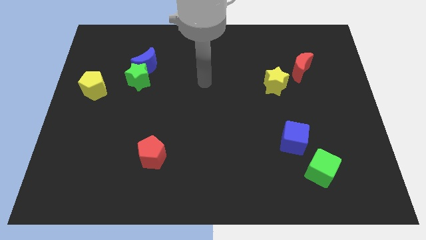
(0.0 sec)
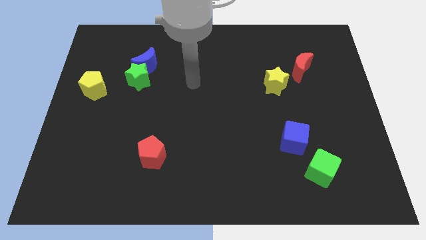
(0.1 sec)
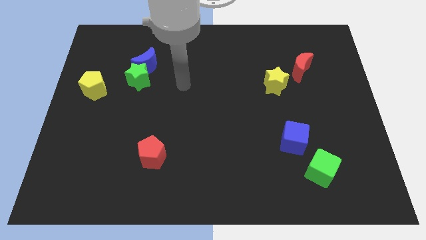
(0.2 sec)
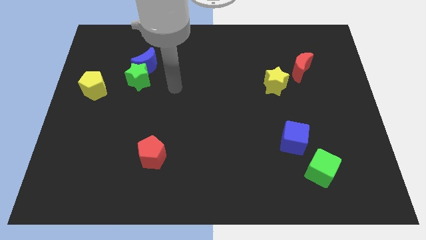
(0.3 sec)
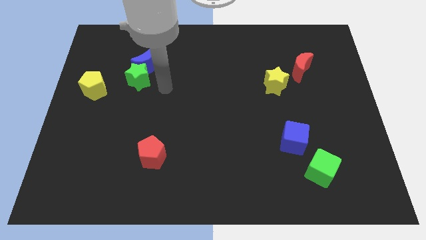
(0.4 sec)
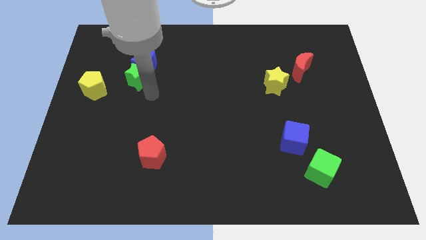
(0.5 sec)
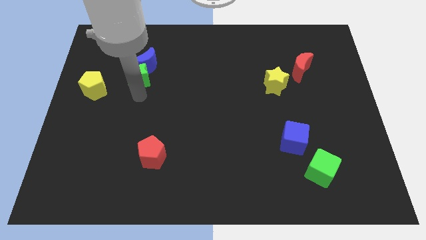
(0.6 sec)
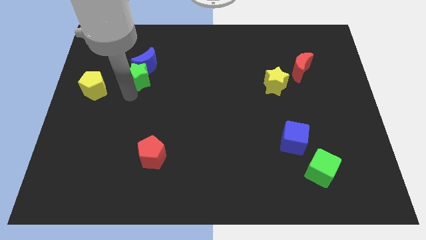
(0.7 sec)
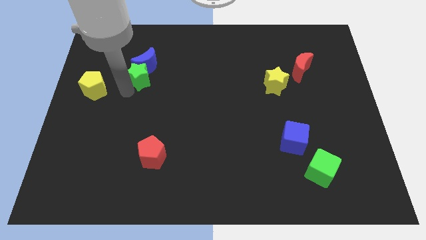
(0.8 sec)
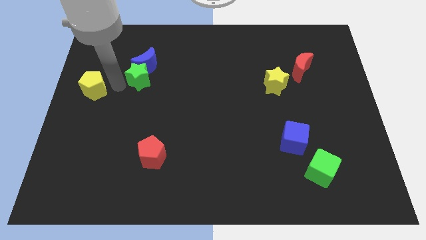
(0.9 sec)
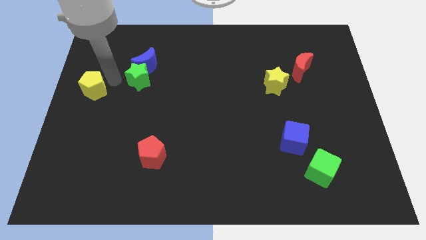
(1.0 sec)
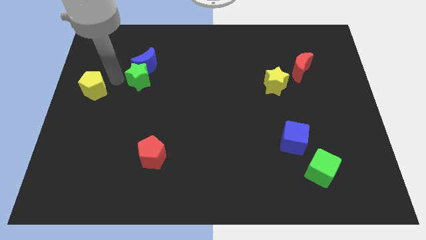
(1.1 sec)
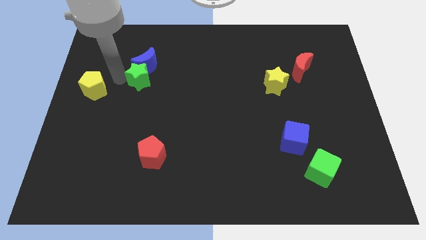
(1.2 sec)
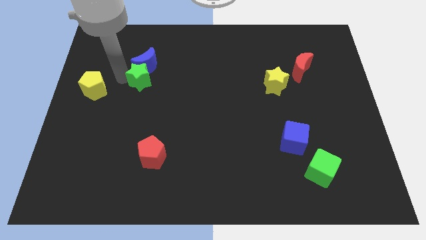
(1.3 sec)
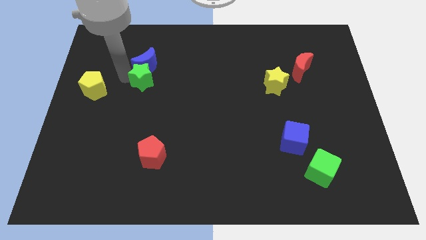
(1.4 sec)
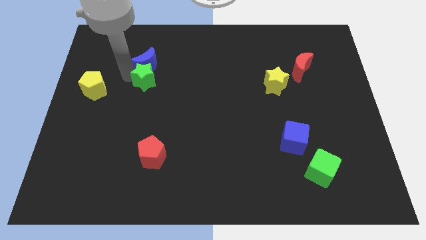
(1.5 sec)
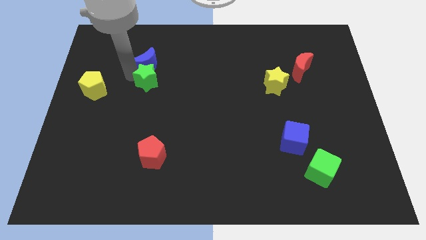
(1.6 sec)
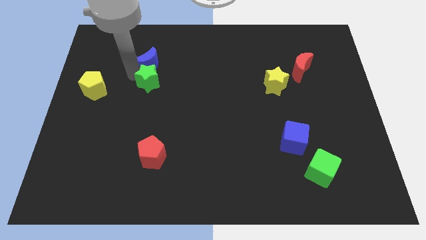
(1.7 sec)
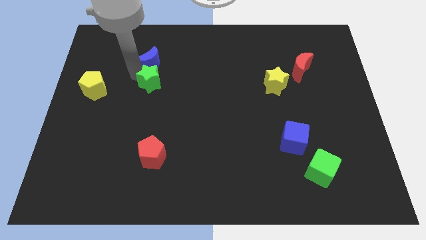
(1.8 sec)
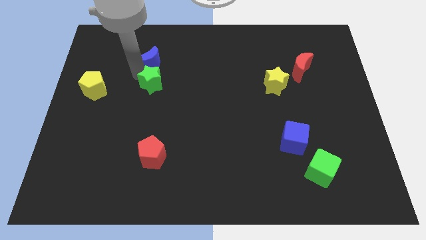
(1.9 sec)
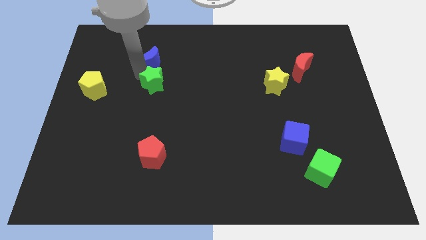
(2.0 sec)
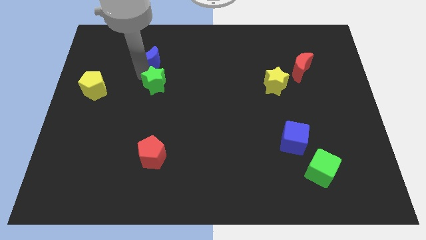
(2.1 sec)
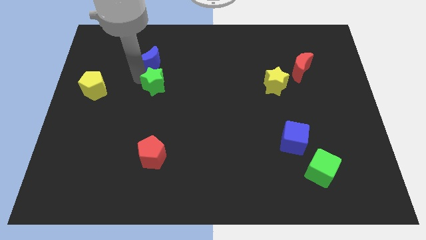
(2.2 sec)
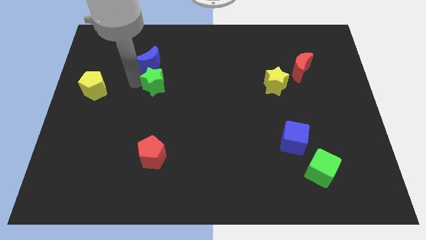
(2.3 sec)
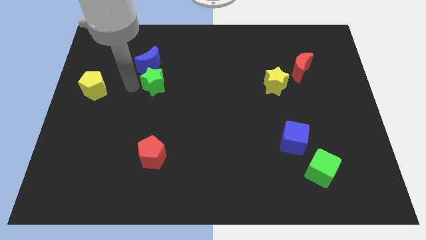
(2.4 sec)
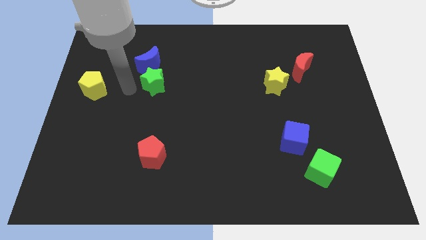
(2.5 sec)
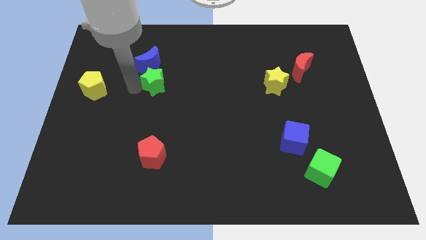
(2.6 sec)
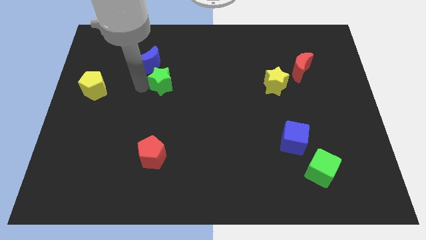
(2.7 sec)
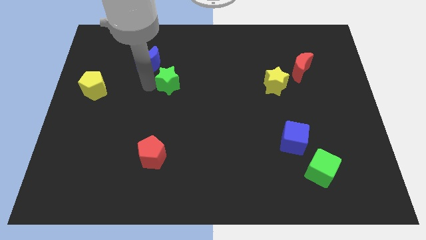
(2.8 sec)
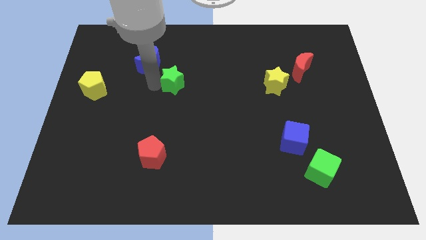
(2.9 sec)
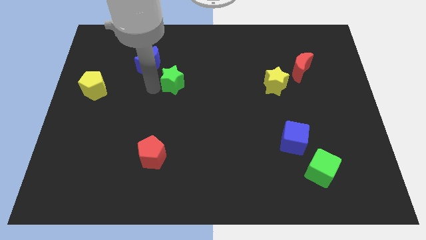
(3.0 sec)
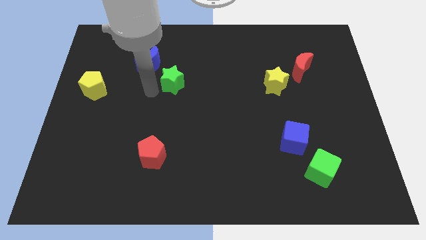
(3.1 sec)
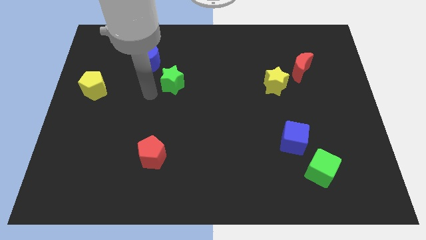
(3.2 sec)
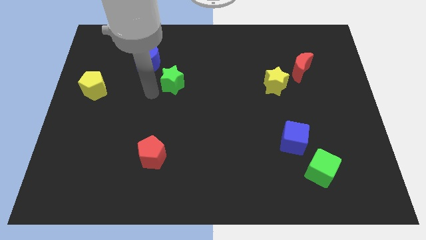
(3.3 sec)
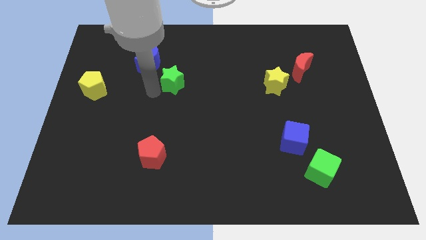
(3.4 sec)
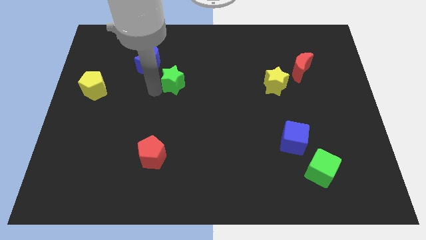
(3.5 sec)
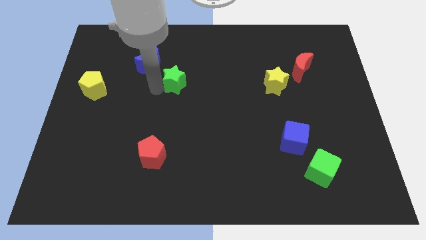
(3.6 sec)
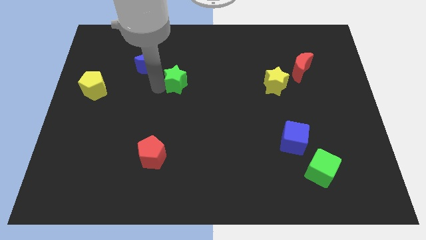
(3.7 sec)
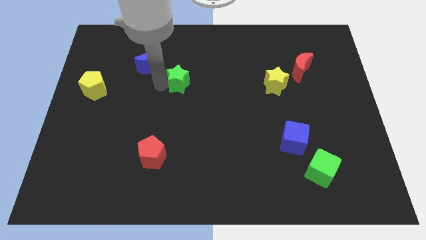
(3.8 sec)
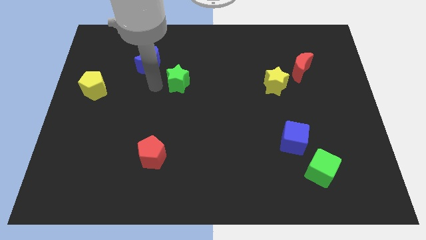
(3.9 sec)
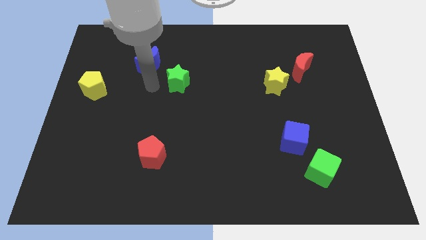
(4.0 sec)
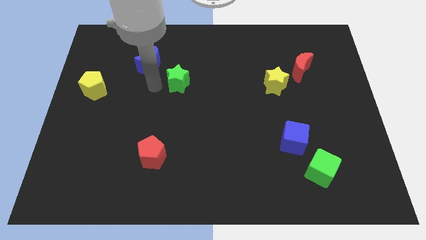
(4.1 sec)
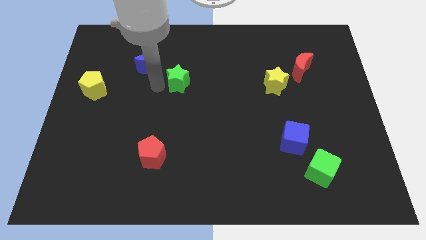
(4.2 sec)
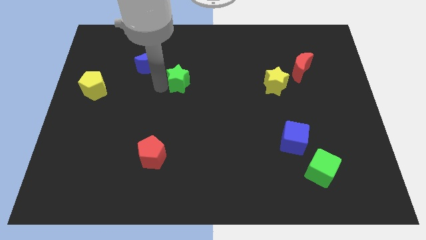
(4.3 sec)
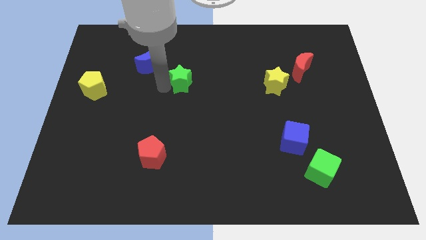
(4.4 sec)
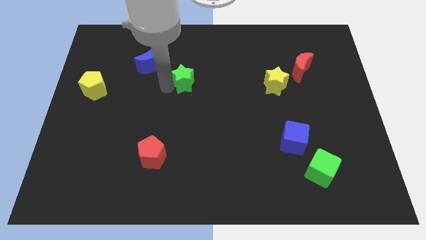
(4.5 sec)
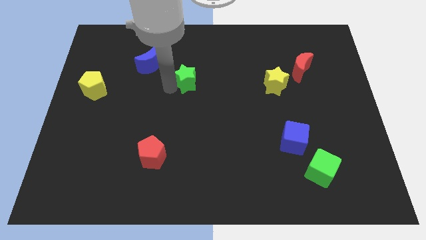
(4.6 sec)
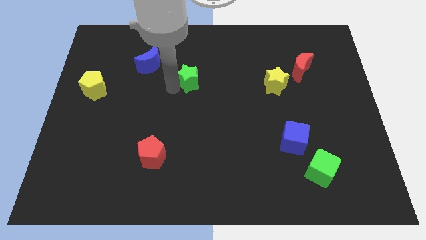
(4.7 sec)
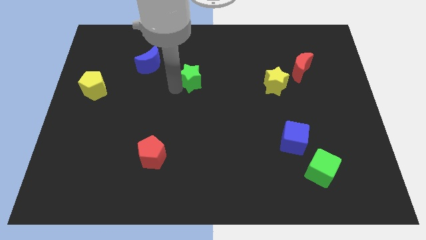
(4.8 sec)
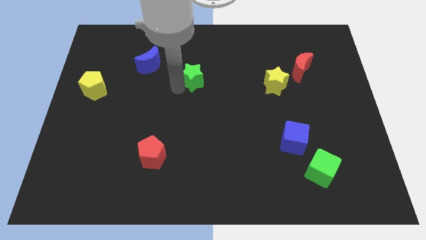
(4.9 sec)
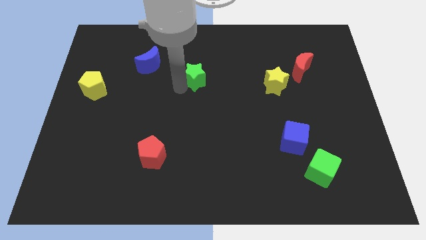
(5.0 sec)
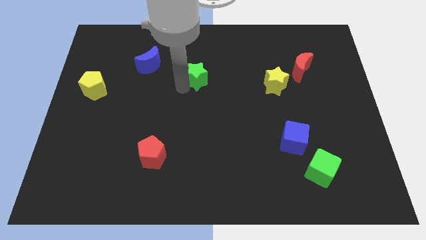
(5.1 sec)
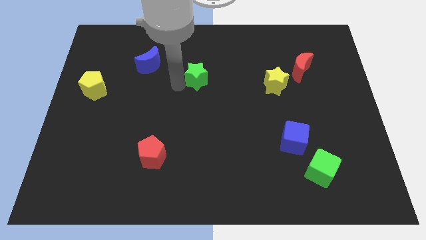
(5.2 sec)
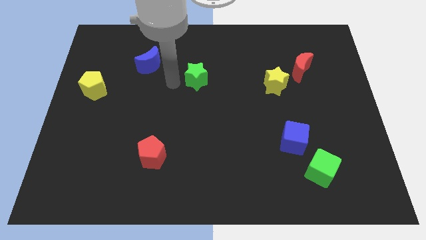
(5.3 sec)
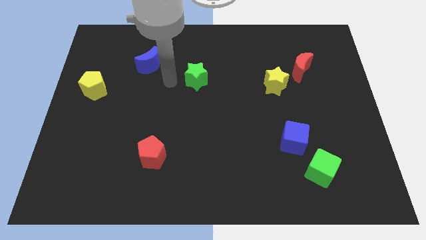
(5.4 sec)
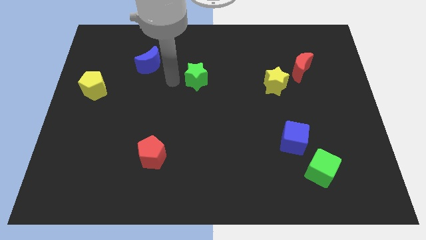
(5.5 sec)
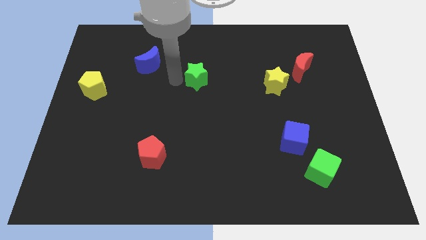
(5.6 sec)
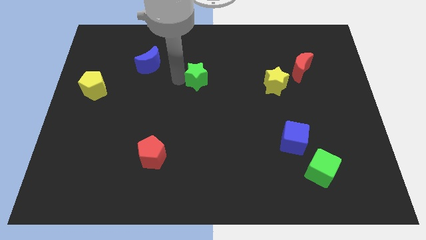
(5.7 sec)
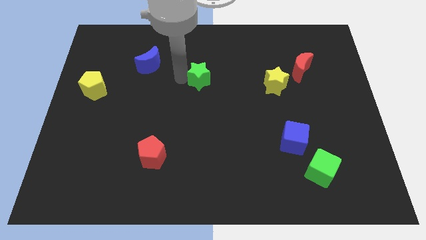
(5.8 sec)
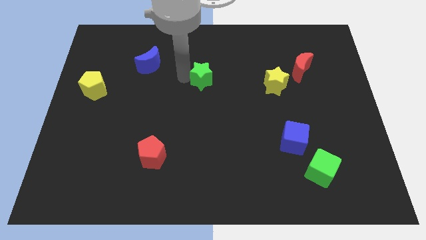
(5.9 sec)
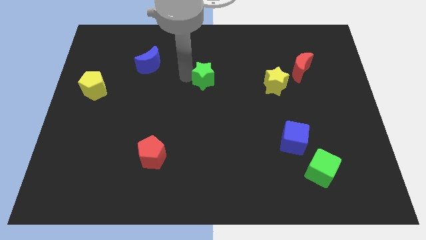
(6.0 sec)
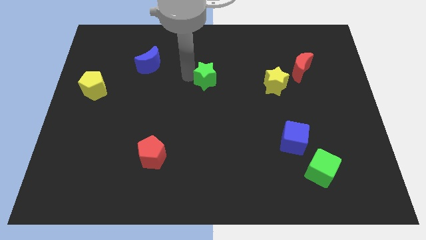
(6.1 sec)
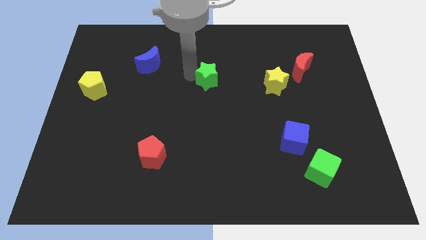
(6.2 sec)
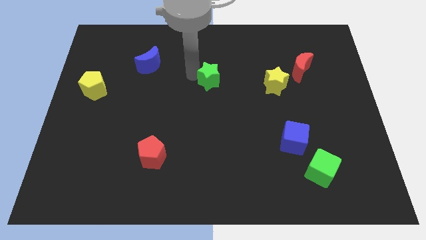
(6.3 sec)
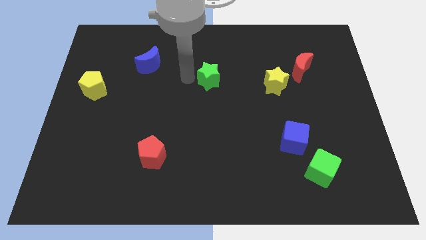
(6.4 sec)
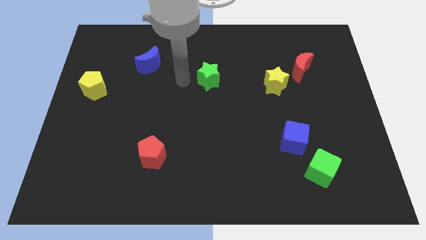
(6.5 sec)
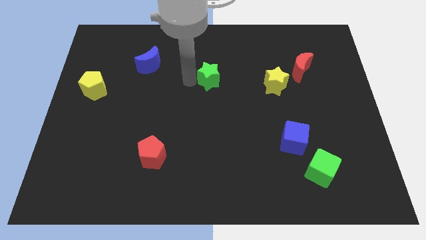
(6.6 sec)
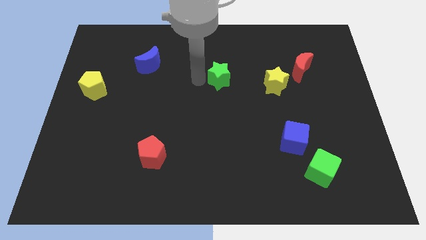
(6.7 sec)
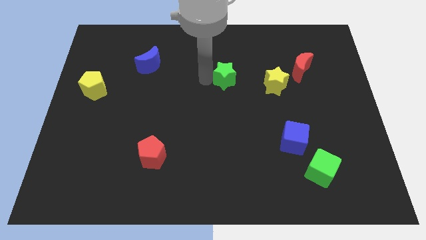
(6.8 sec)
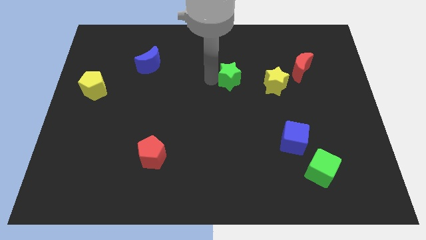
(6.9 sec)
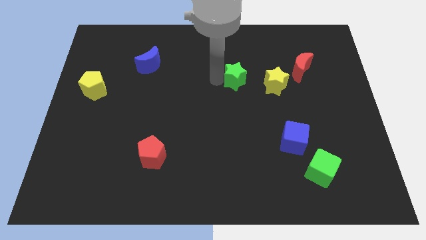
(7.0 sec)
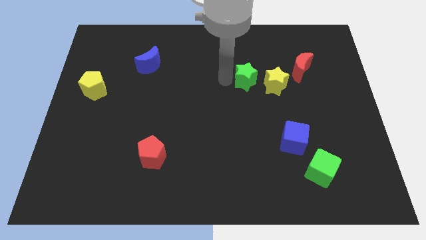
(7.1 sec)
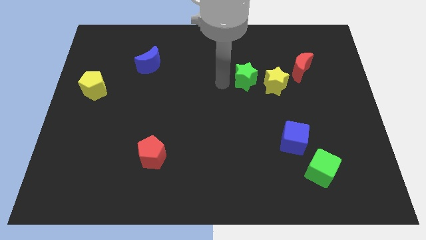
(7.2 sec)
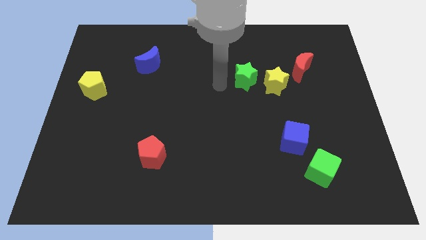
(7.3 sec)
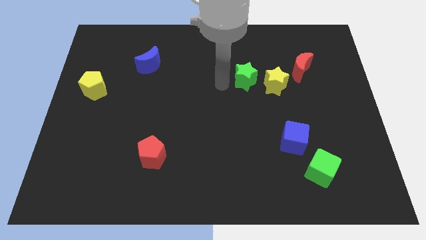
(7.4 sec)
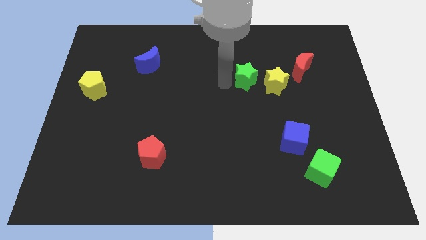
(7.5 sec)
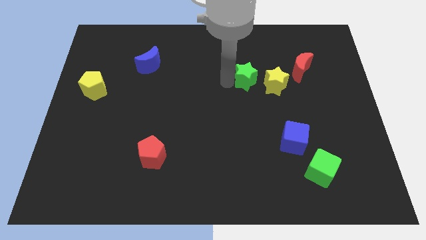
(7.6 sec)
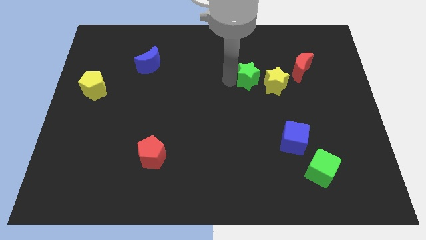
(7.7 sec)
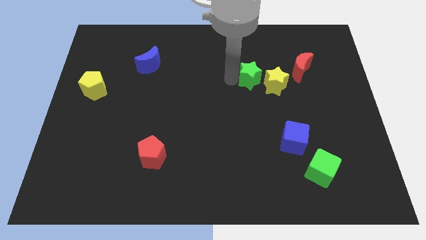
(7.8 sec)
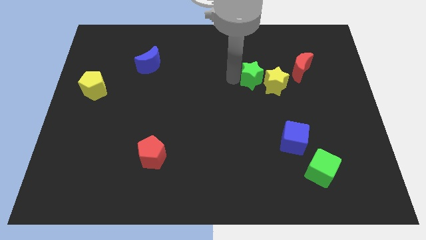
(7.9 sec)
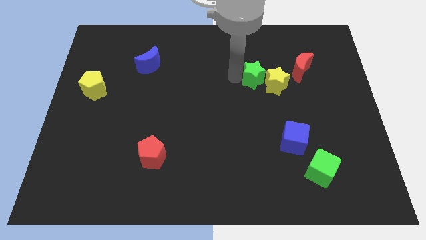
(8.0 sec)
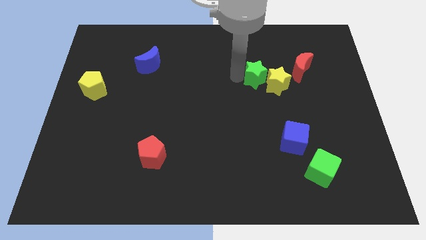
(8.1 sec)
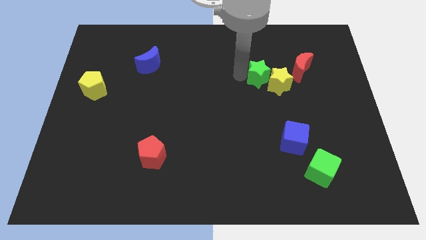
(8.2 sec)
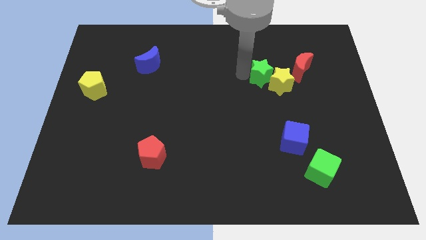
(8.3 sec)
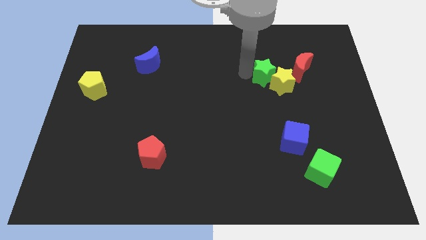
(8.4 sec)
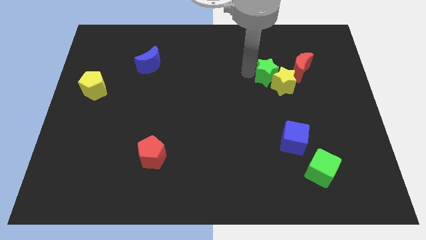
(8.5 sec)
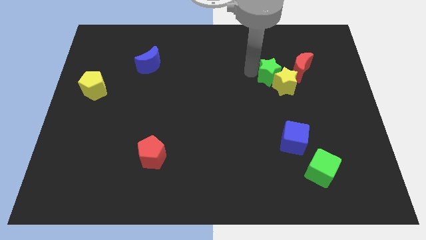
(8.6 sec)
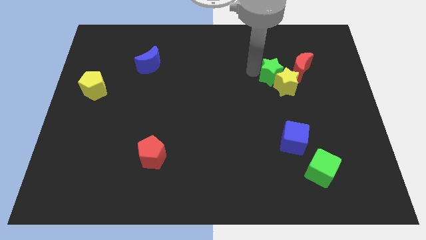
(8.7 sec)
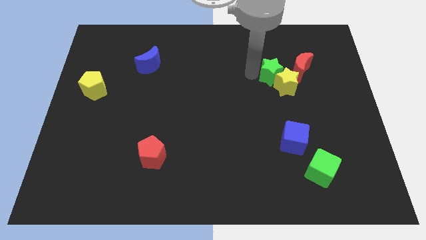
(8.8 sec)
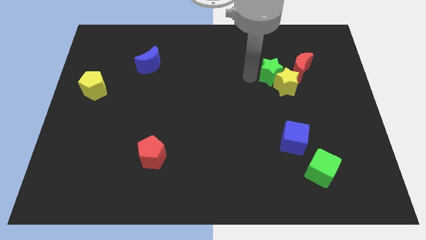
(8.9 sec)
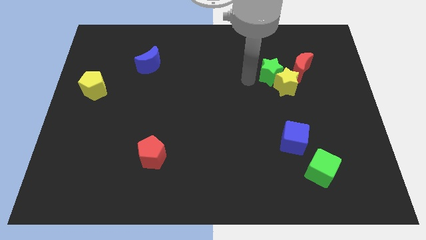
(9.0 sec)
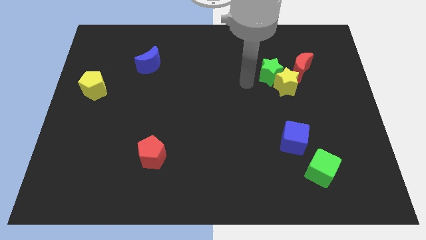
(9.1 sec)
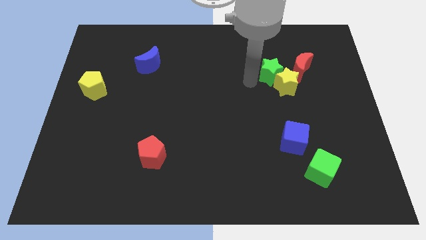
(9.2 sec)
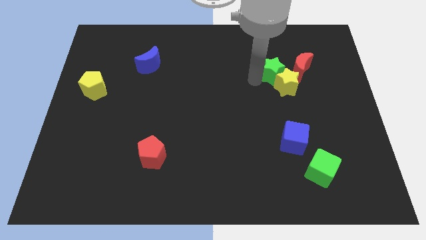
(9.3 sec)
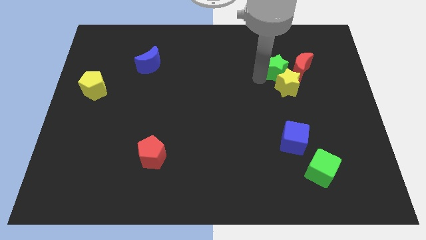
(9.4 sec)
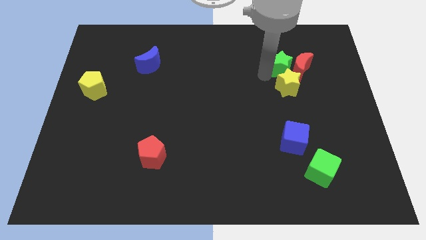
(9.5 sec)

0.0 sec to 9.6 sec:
slide the green star next to the red moon
